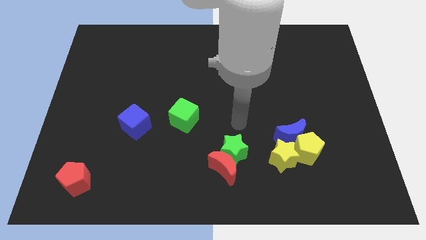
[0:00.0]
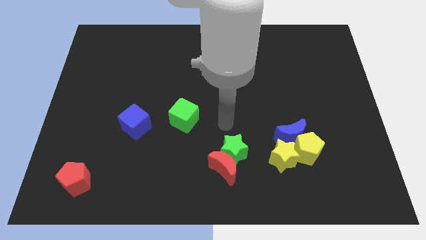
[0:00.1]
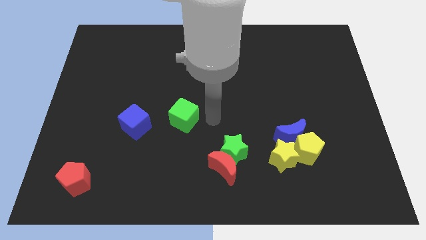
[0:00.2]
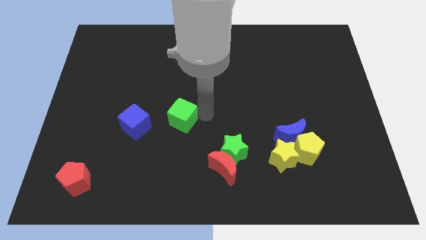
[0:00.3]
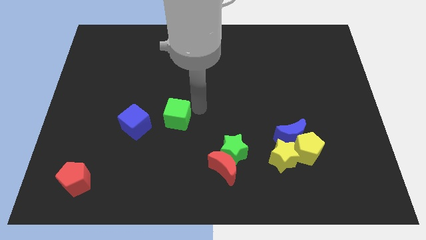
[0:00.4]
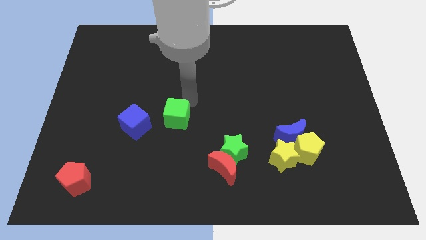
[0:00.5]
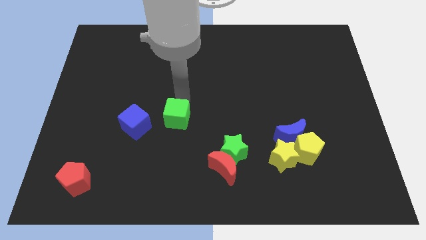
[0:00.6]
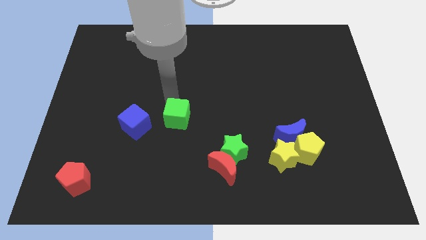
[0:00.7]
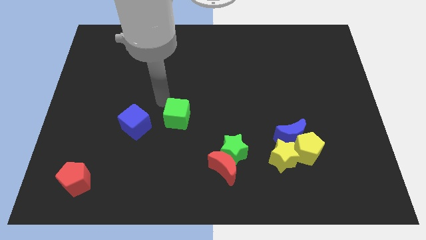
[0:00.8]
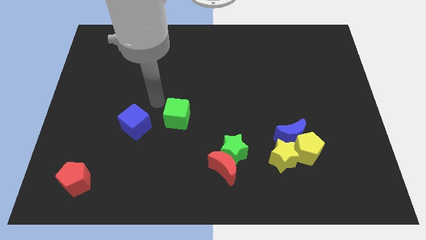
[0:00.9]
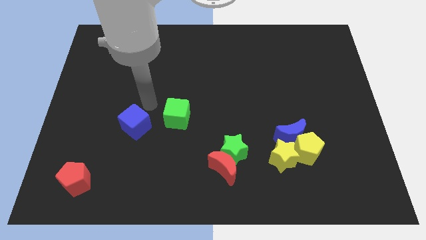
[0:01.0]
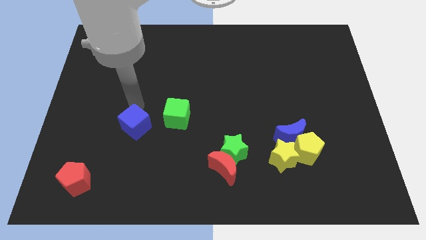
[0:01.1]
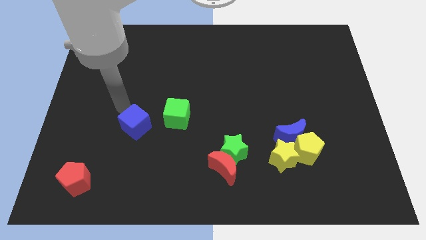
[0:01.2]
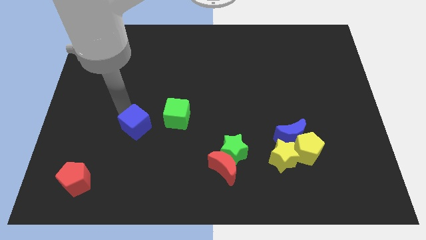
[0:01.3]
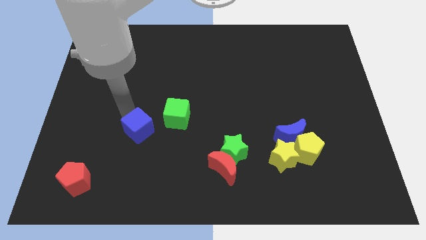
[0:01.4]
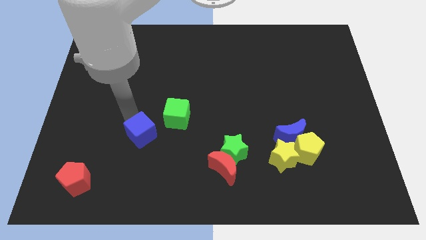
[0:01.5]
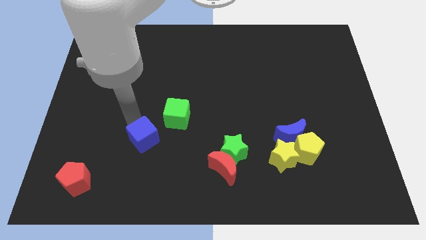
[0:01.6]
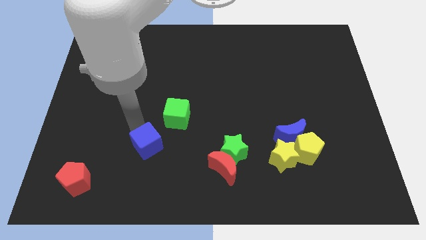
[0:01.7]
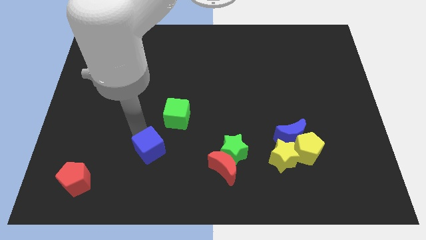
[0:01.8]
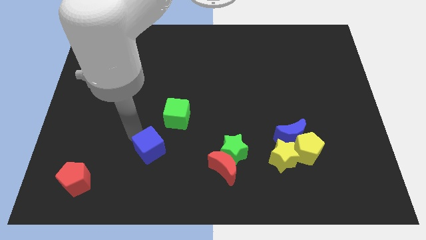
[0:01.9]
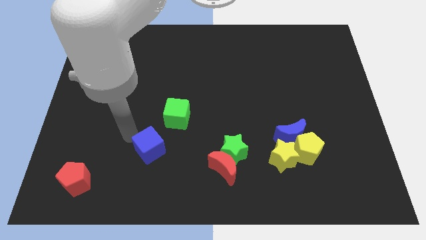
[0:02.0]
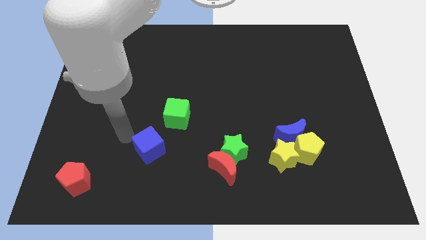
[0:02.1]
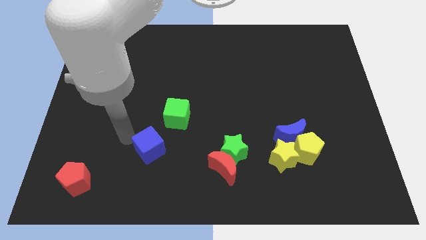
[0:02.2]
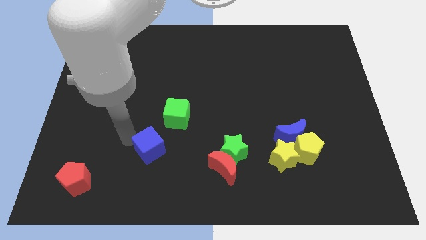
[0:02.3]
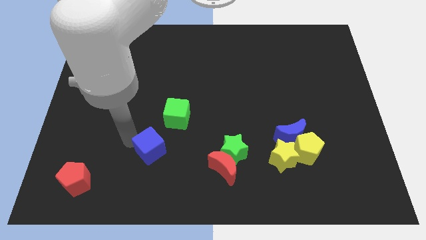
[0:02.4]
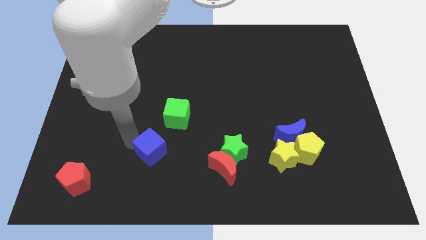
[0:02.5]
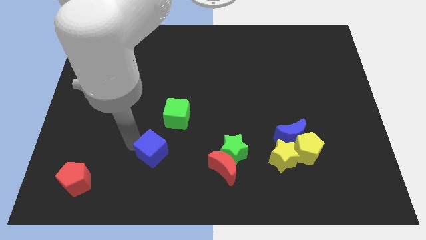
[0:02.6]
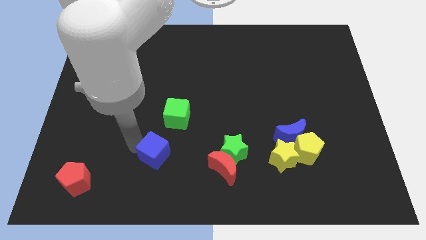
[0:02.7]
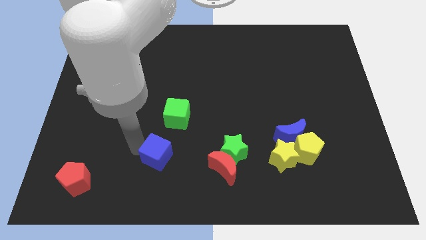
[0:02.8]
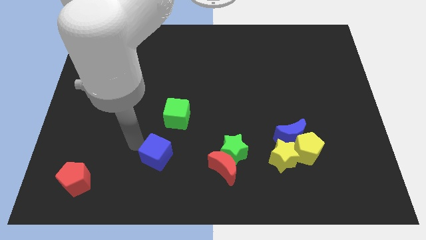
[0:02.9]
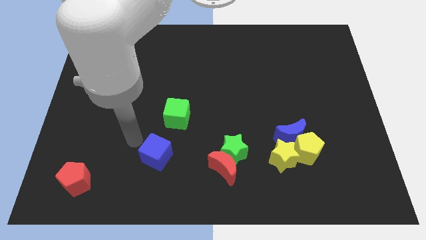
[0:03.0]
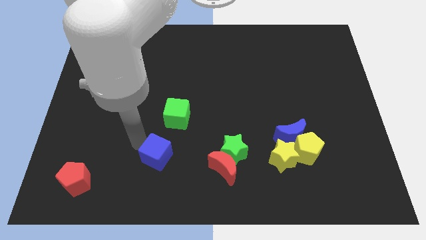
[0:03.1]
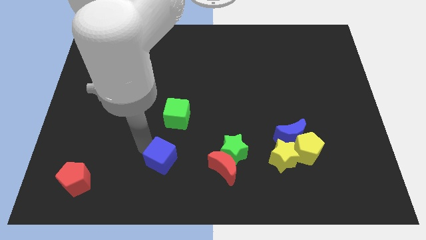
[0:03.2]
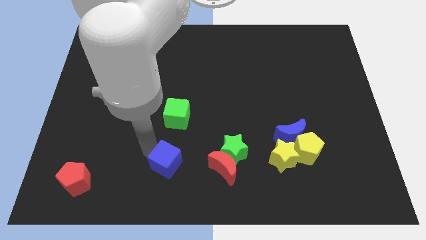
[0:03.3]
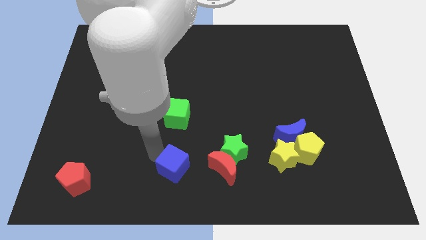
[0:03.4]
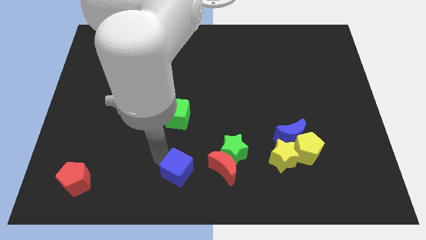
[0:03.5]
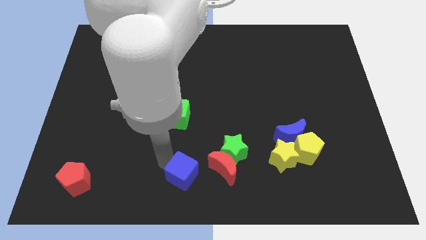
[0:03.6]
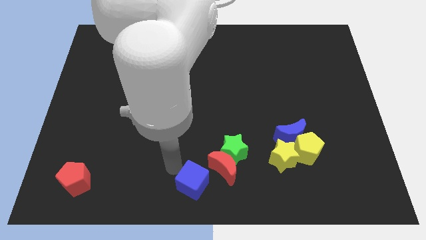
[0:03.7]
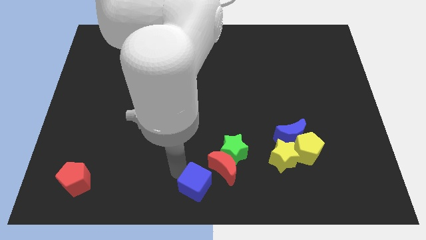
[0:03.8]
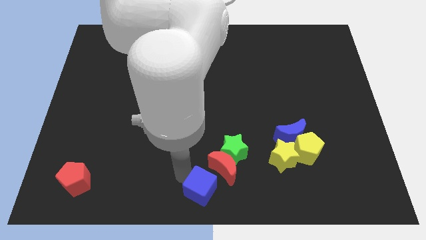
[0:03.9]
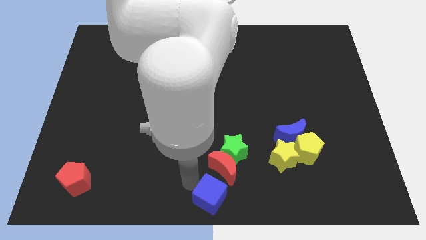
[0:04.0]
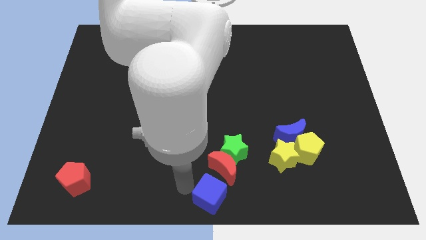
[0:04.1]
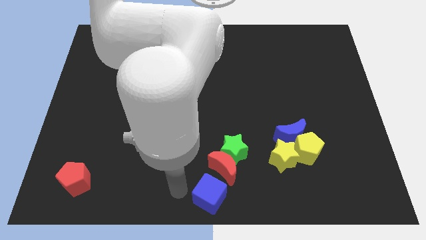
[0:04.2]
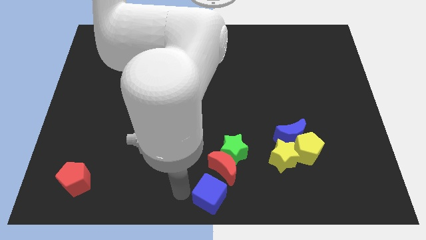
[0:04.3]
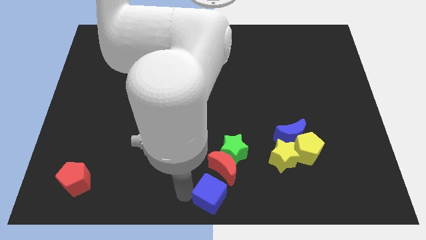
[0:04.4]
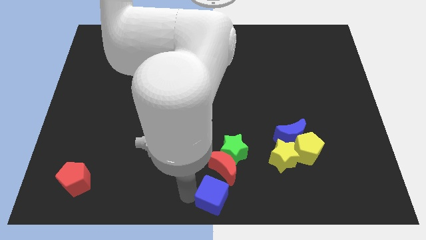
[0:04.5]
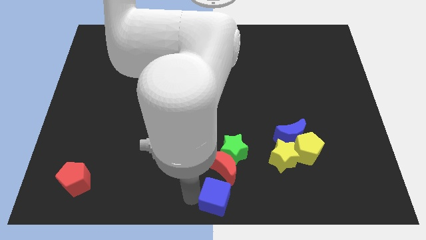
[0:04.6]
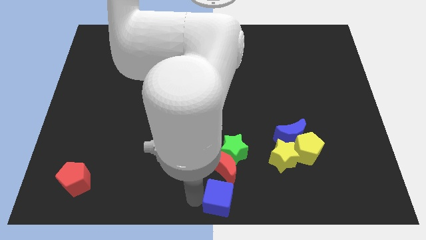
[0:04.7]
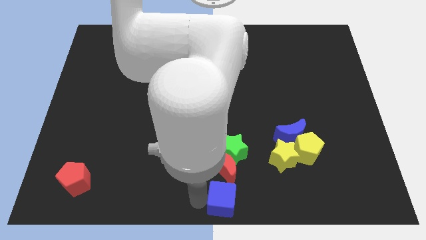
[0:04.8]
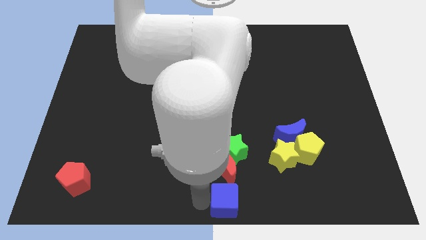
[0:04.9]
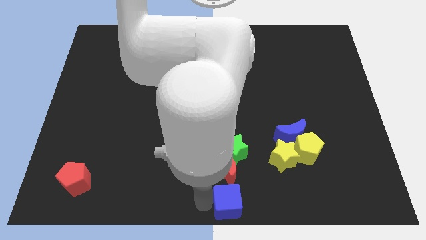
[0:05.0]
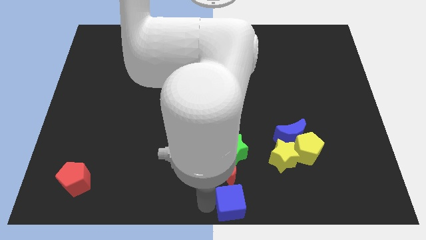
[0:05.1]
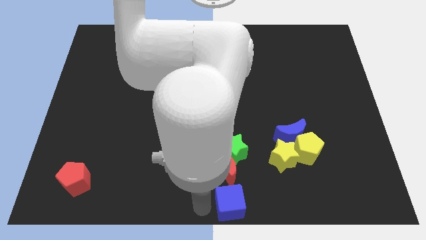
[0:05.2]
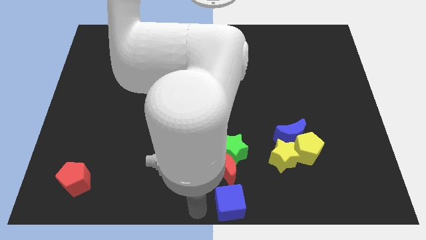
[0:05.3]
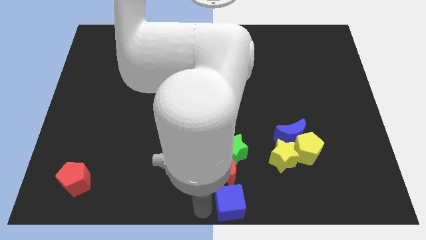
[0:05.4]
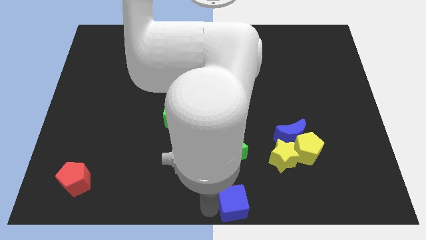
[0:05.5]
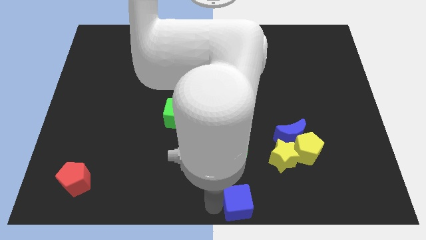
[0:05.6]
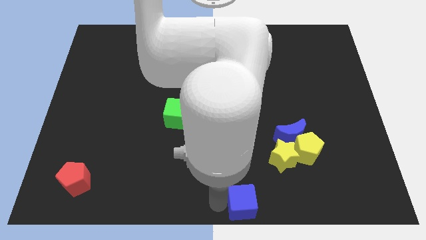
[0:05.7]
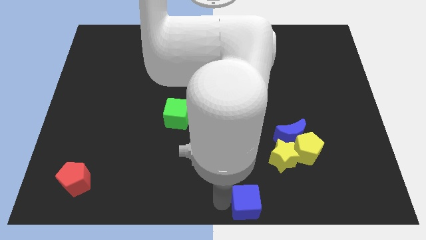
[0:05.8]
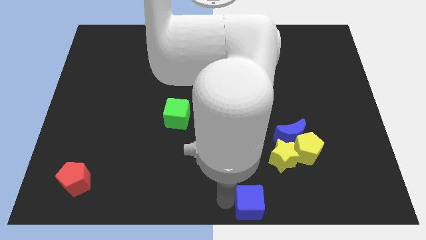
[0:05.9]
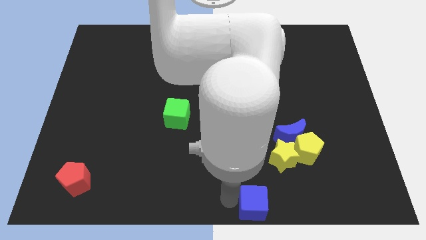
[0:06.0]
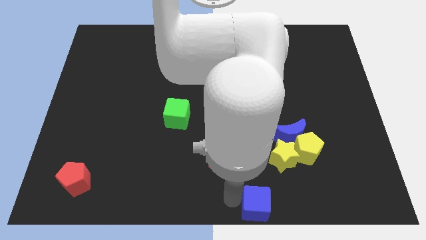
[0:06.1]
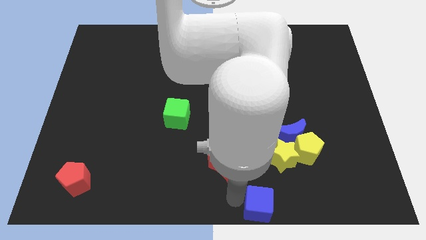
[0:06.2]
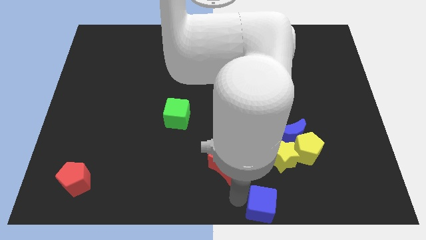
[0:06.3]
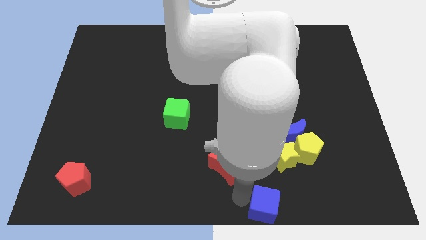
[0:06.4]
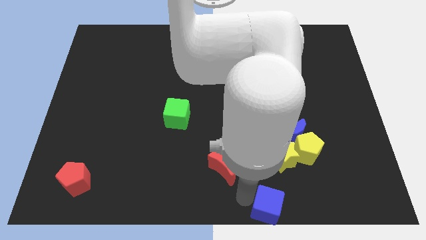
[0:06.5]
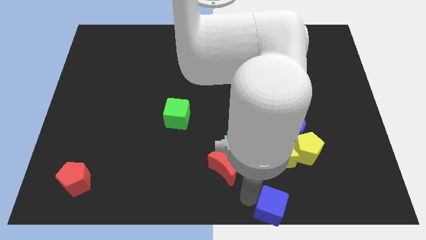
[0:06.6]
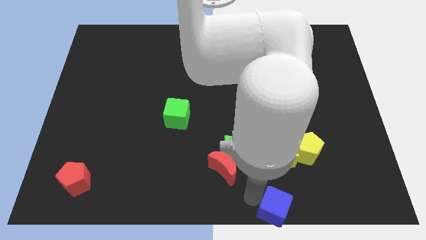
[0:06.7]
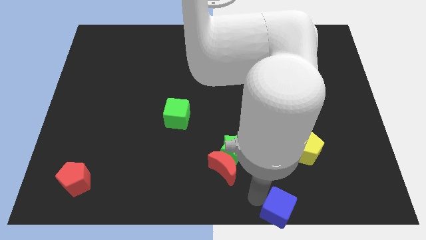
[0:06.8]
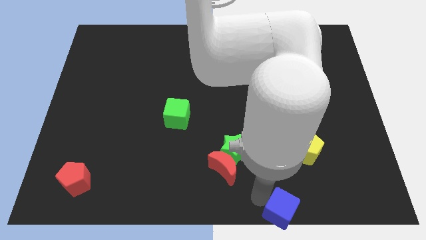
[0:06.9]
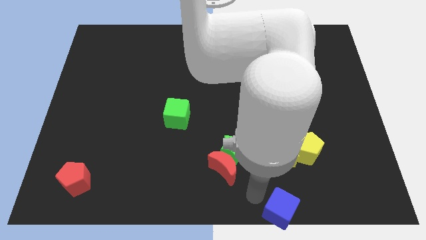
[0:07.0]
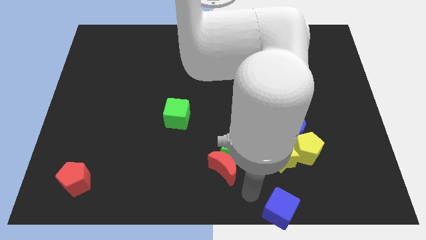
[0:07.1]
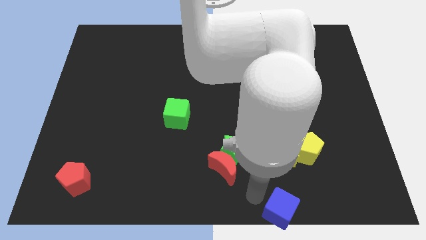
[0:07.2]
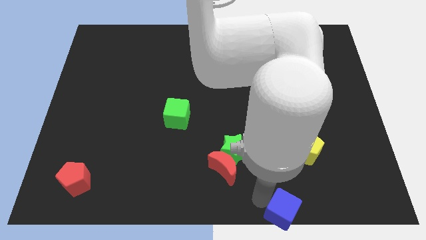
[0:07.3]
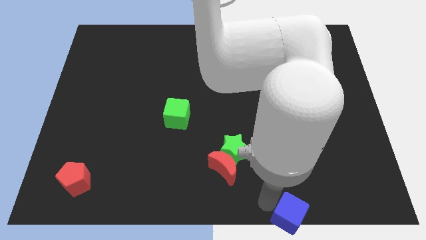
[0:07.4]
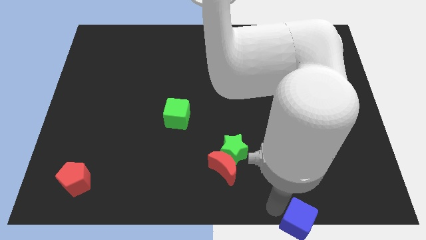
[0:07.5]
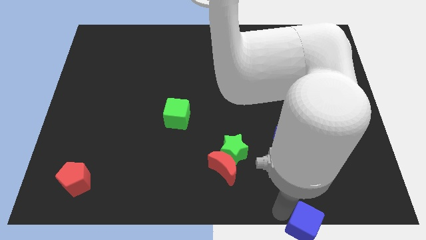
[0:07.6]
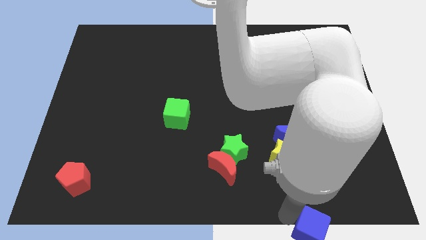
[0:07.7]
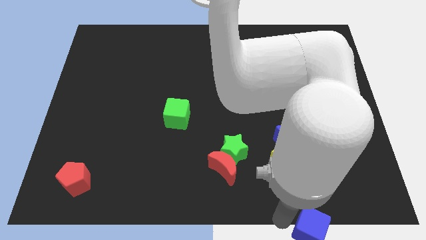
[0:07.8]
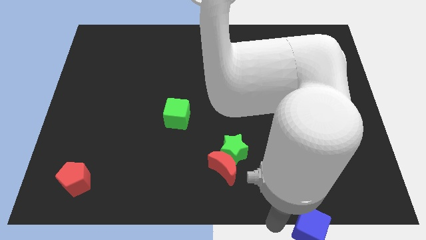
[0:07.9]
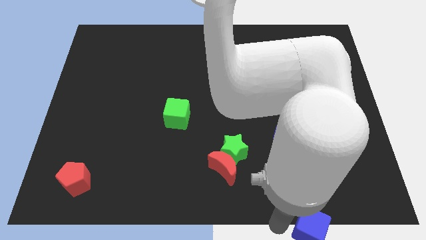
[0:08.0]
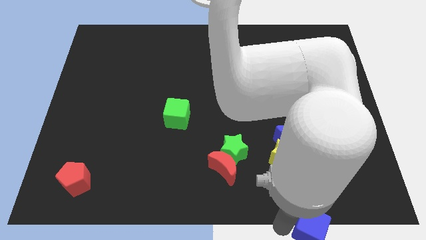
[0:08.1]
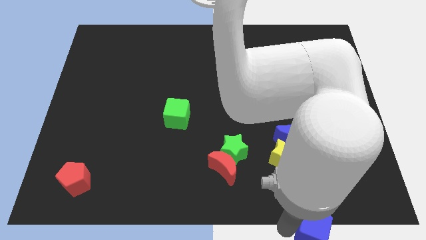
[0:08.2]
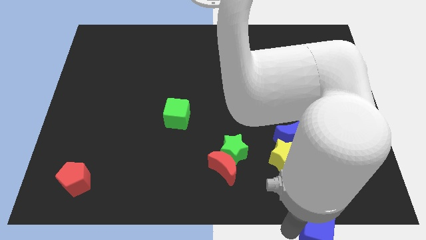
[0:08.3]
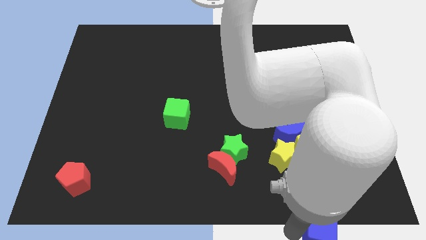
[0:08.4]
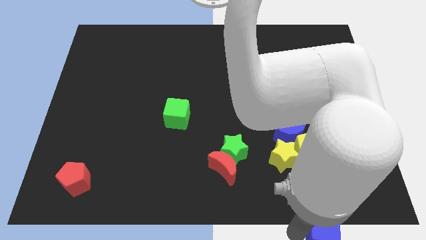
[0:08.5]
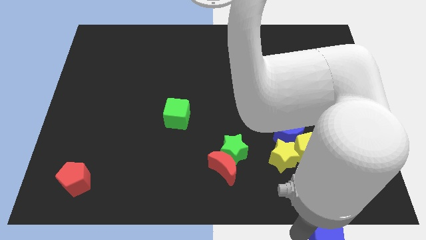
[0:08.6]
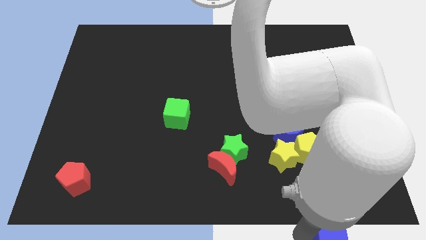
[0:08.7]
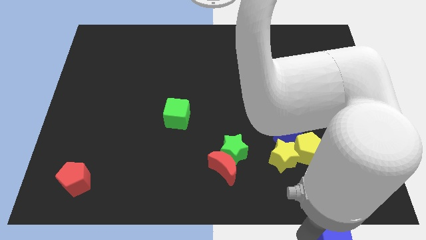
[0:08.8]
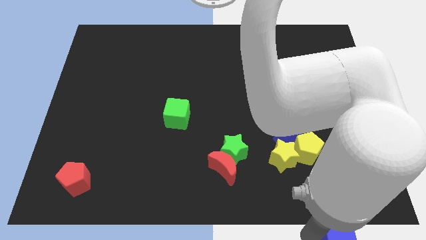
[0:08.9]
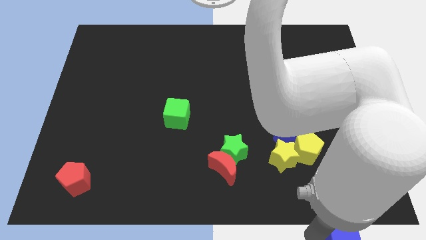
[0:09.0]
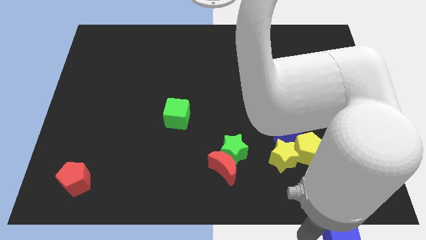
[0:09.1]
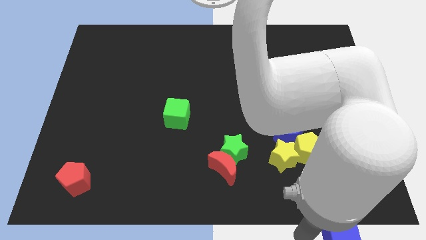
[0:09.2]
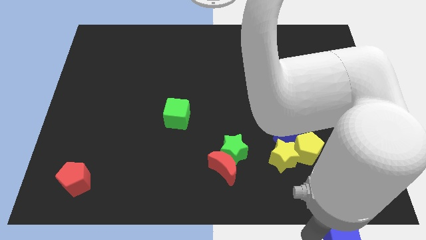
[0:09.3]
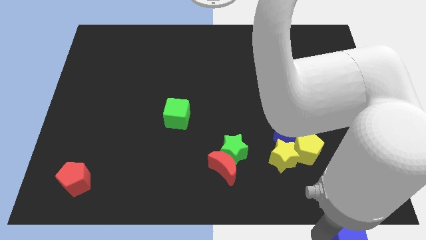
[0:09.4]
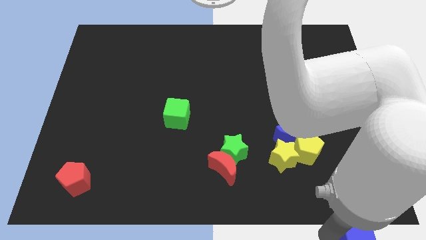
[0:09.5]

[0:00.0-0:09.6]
slide the blue cube to the lower right corner
